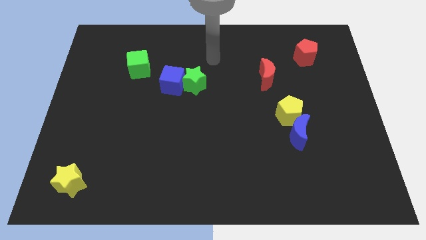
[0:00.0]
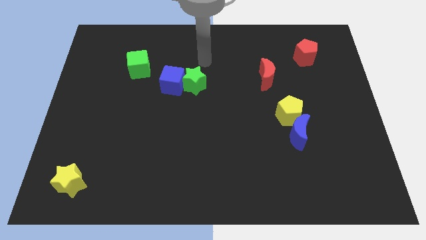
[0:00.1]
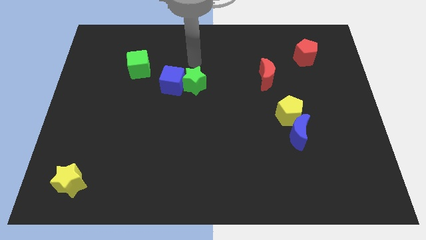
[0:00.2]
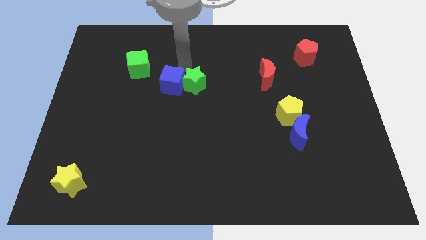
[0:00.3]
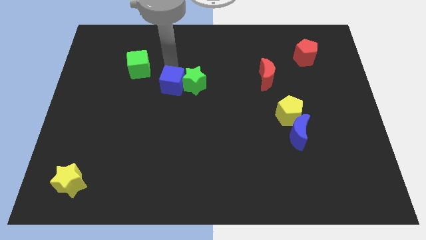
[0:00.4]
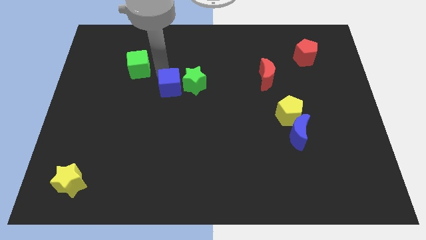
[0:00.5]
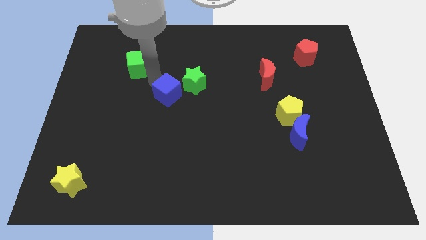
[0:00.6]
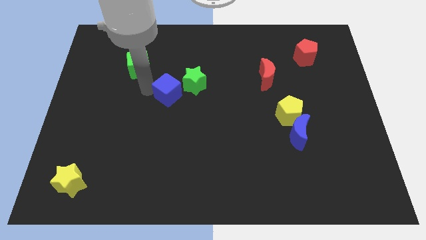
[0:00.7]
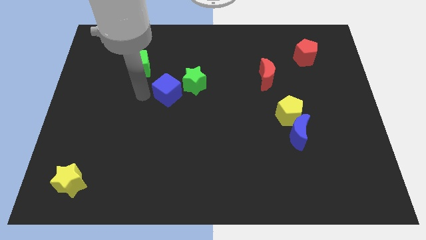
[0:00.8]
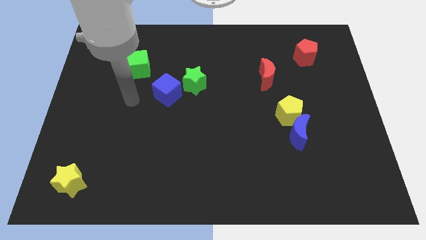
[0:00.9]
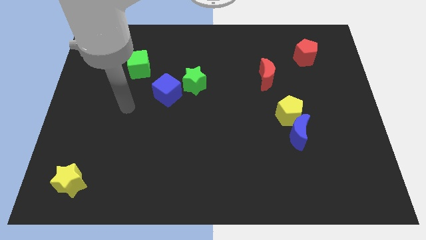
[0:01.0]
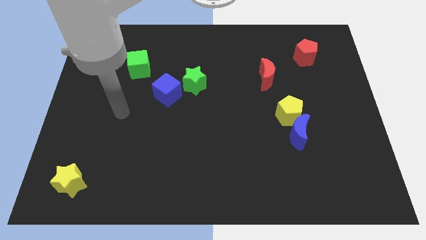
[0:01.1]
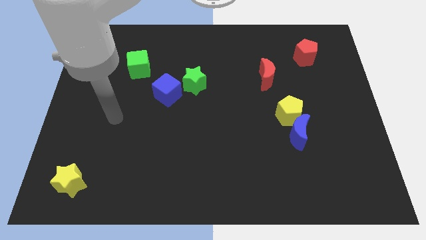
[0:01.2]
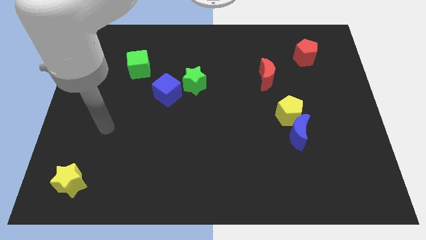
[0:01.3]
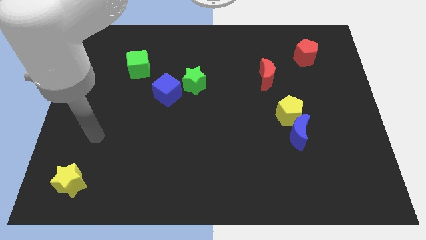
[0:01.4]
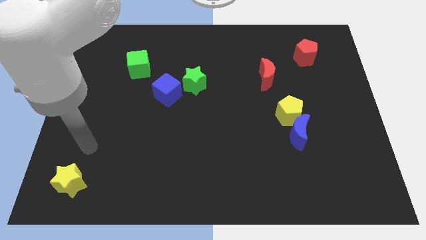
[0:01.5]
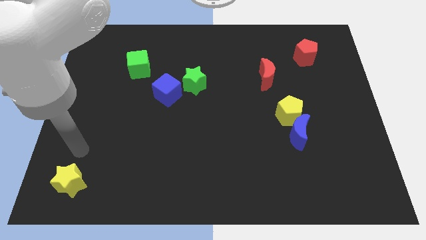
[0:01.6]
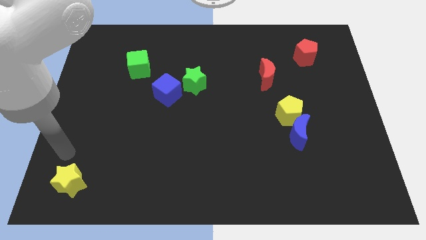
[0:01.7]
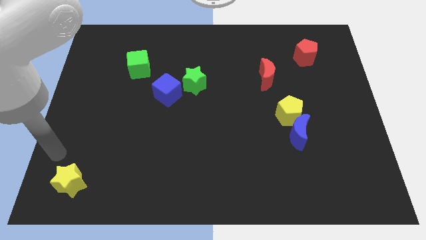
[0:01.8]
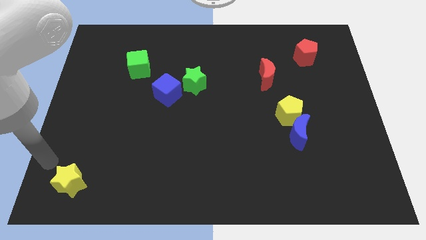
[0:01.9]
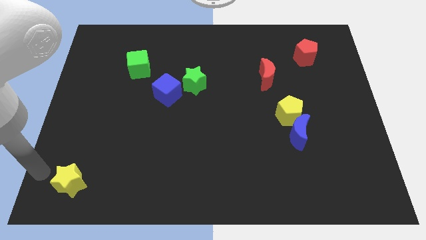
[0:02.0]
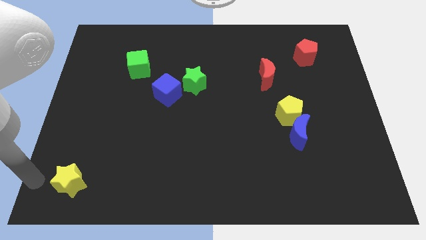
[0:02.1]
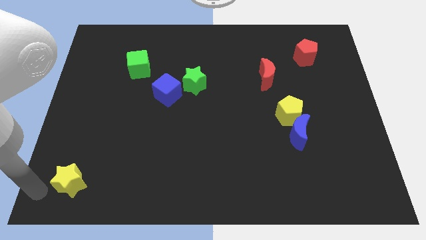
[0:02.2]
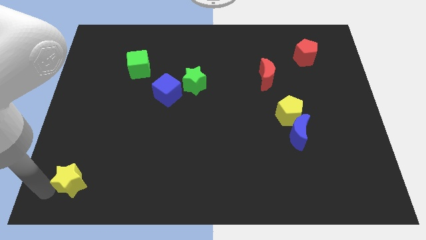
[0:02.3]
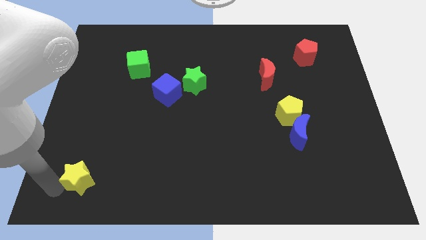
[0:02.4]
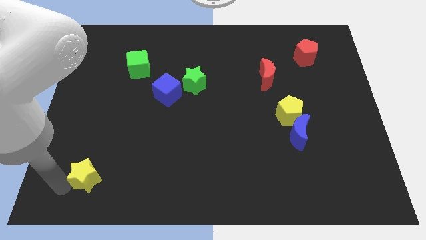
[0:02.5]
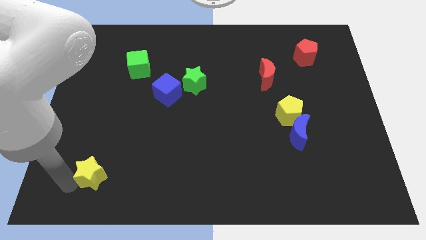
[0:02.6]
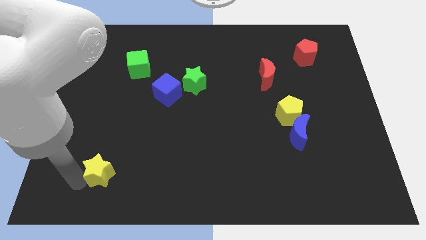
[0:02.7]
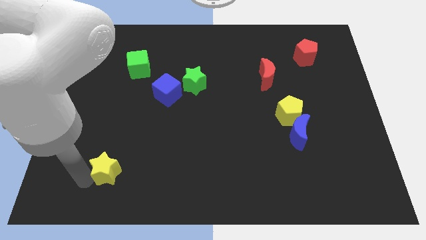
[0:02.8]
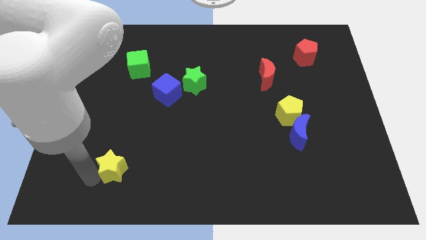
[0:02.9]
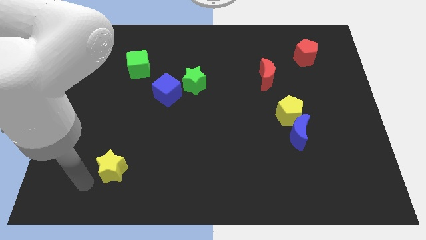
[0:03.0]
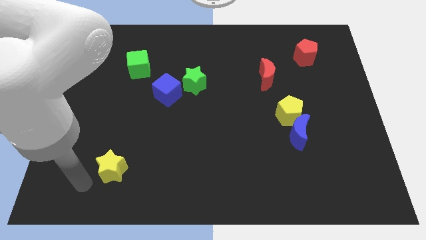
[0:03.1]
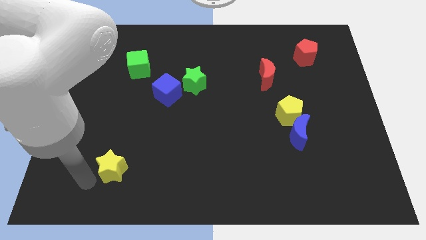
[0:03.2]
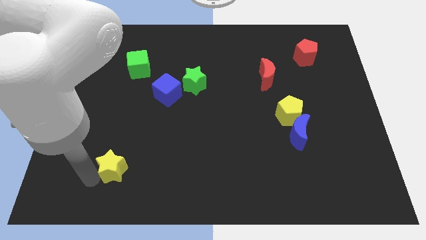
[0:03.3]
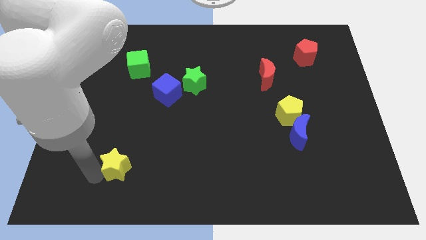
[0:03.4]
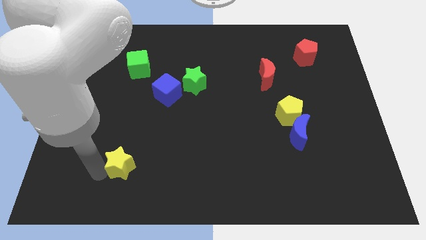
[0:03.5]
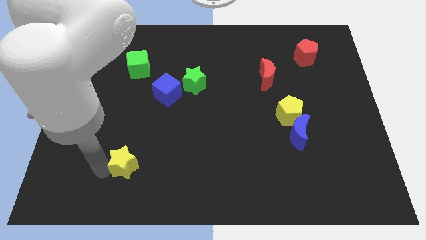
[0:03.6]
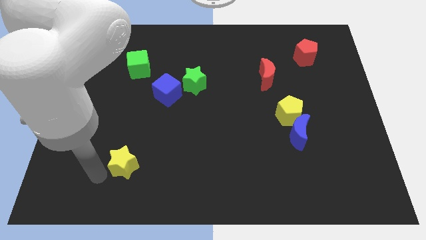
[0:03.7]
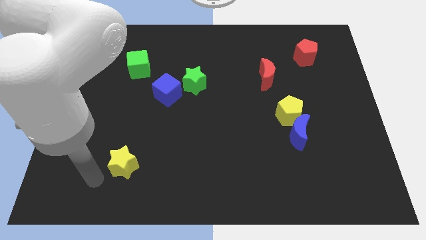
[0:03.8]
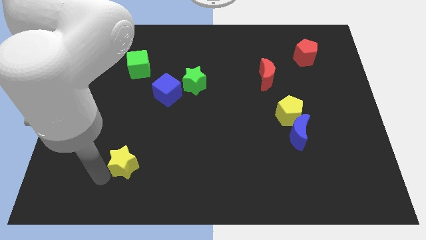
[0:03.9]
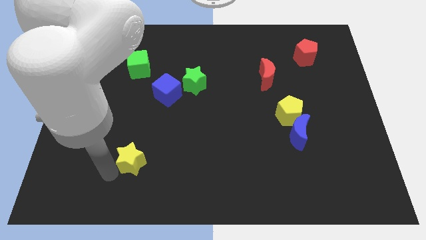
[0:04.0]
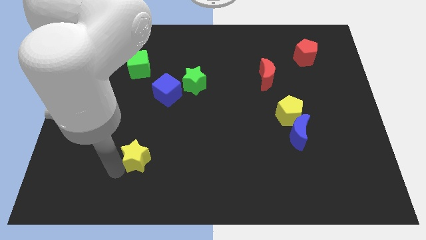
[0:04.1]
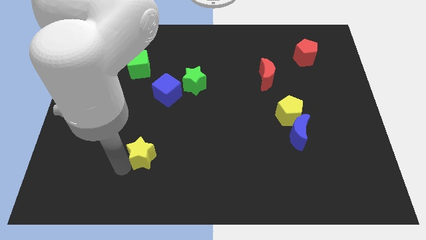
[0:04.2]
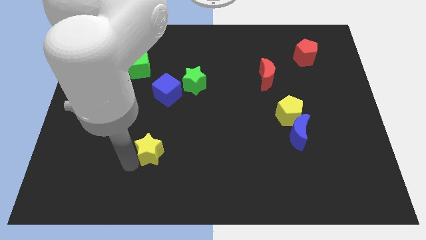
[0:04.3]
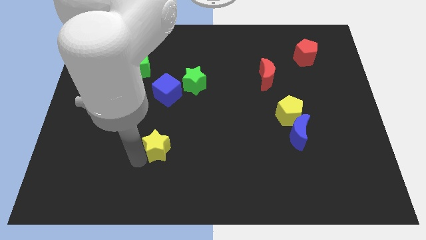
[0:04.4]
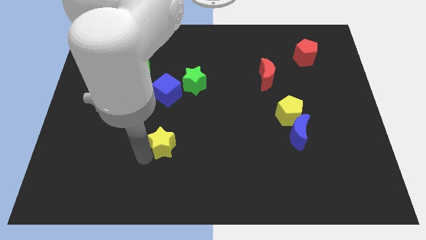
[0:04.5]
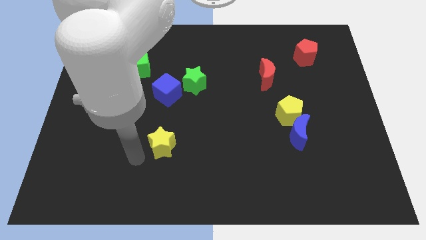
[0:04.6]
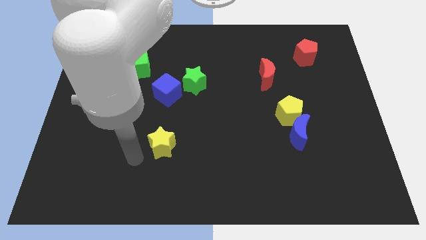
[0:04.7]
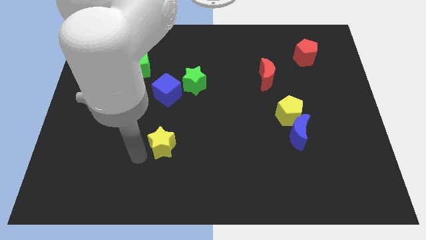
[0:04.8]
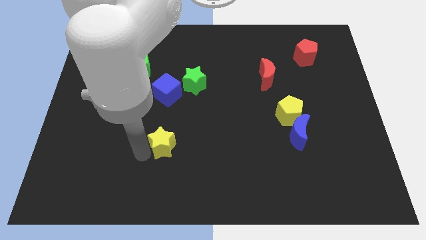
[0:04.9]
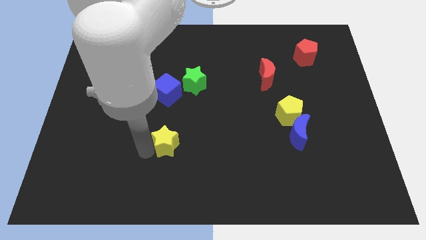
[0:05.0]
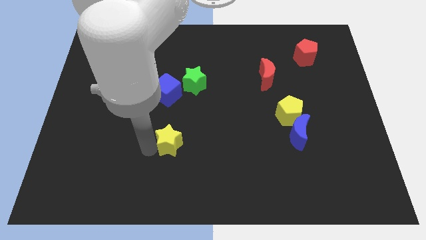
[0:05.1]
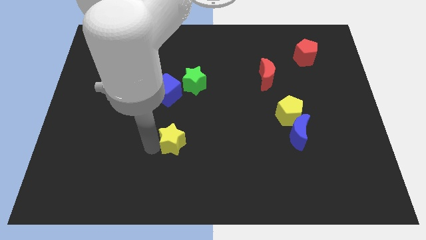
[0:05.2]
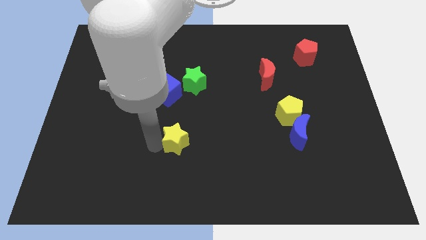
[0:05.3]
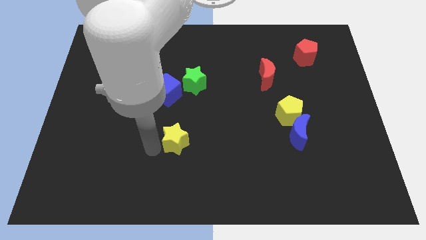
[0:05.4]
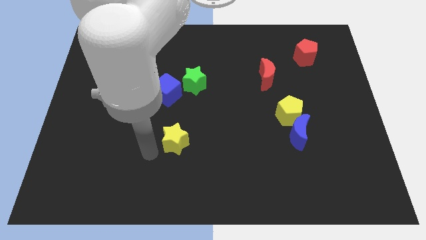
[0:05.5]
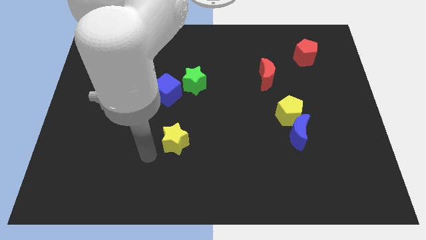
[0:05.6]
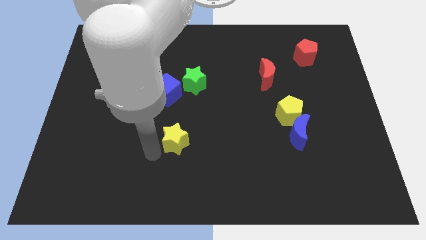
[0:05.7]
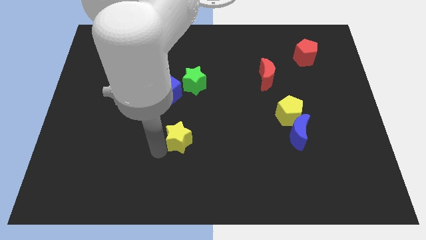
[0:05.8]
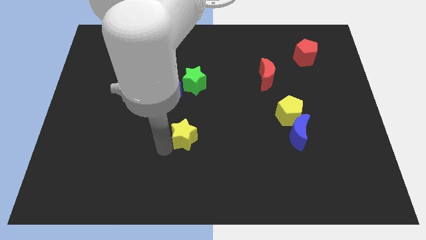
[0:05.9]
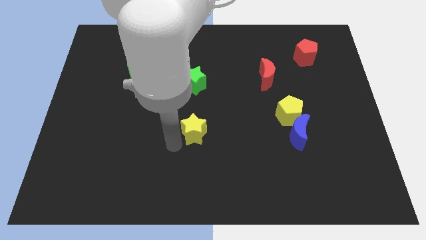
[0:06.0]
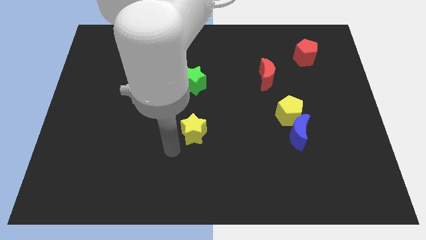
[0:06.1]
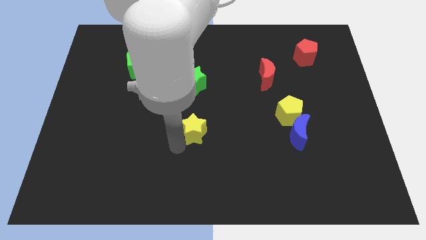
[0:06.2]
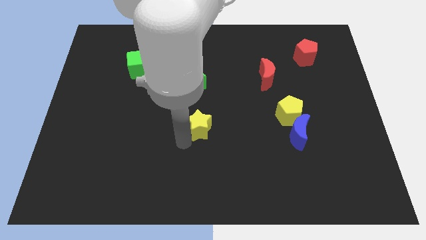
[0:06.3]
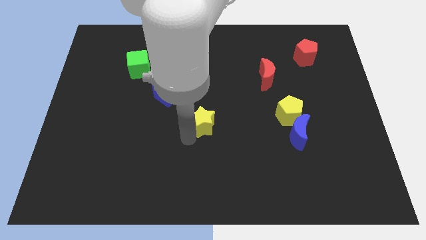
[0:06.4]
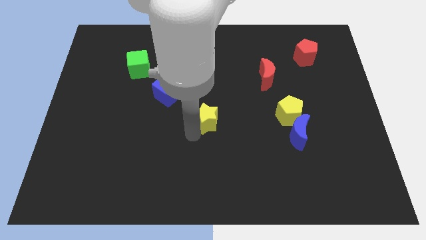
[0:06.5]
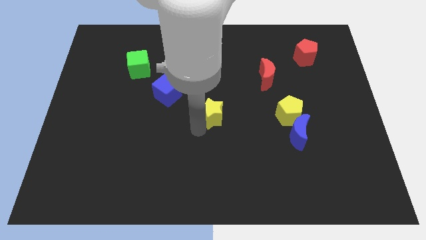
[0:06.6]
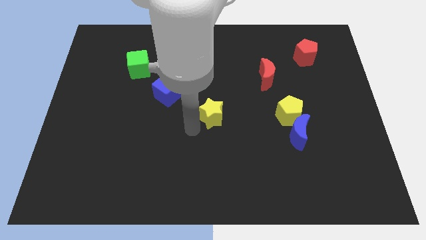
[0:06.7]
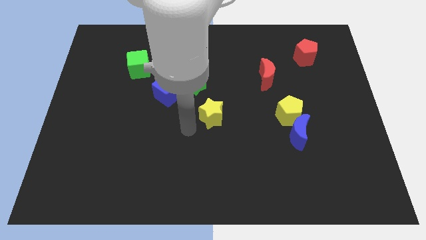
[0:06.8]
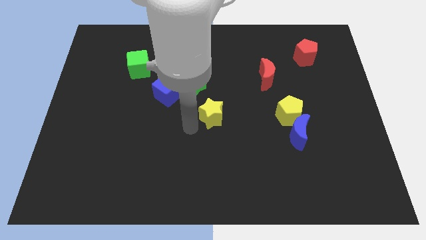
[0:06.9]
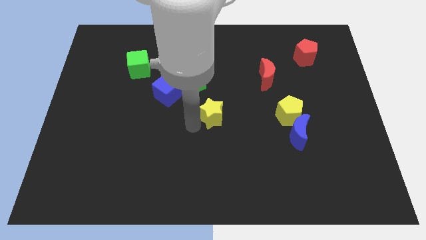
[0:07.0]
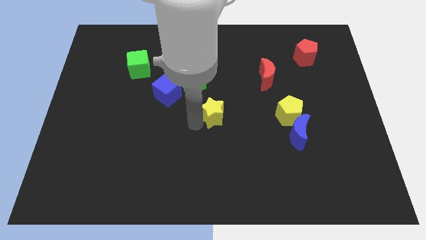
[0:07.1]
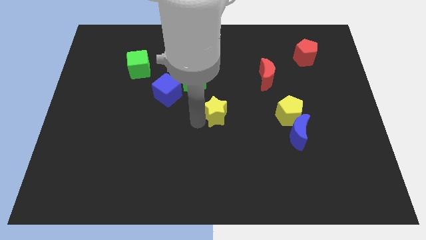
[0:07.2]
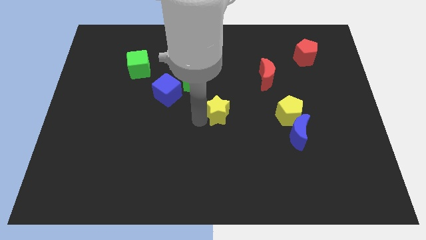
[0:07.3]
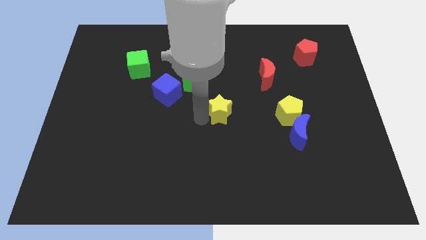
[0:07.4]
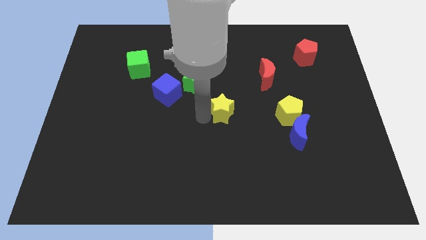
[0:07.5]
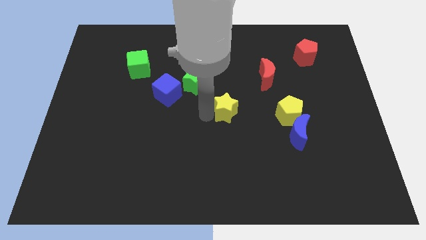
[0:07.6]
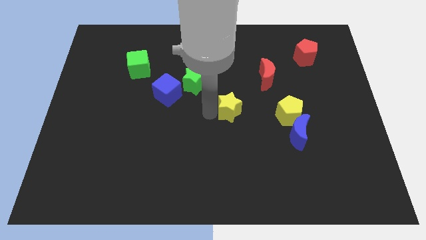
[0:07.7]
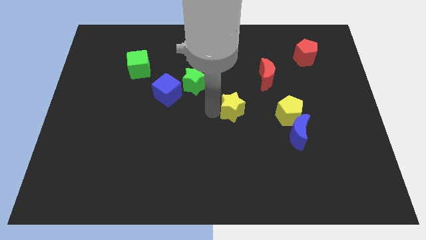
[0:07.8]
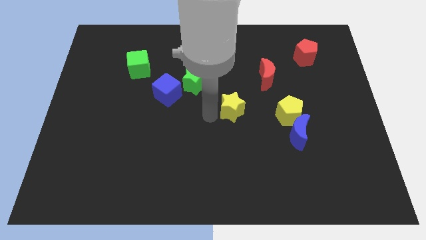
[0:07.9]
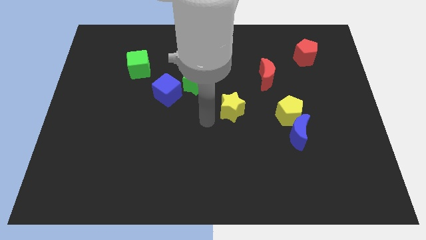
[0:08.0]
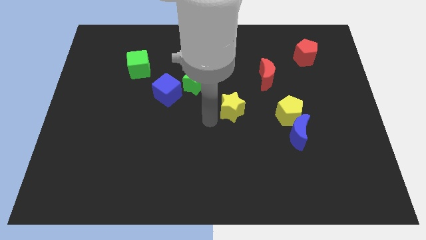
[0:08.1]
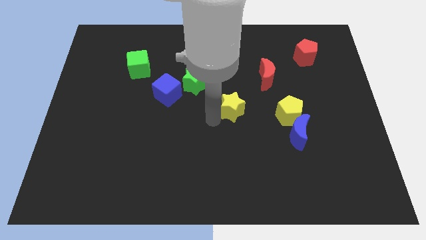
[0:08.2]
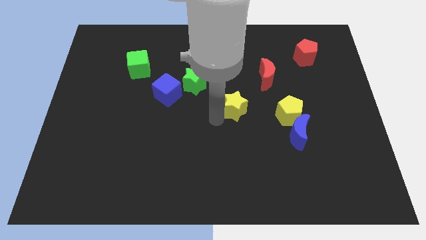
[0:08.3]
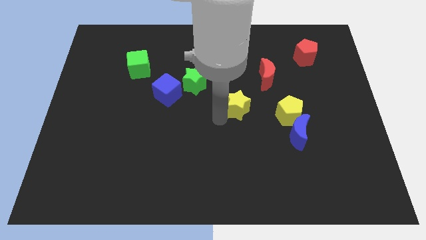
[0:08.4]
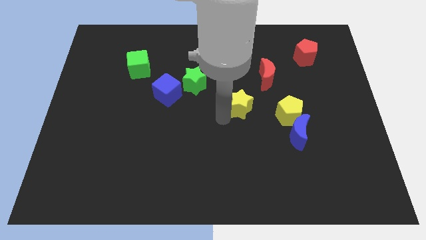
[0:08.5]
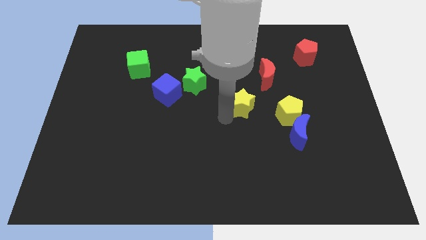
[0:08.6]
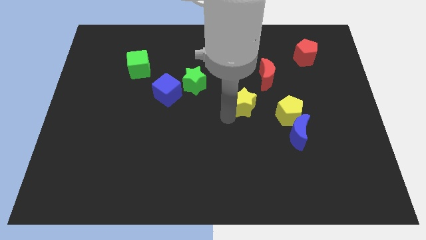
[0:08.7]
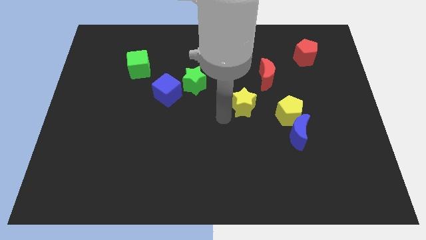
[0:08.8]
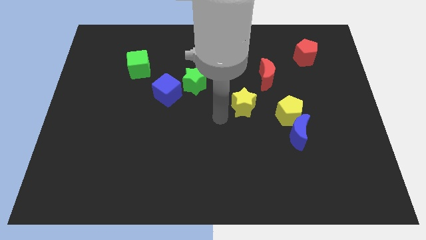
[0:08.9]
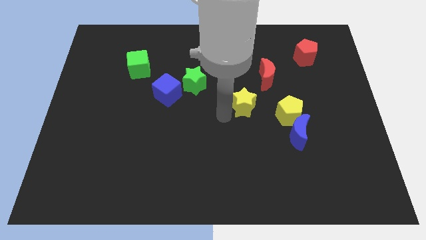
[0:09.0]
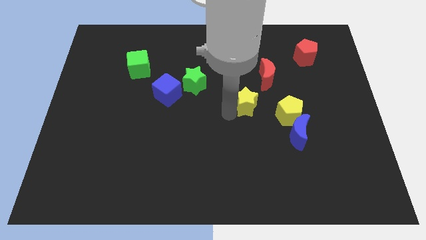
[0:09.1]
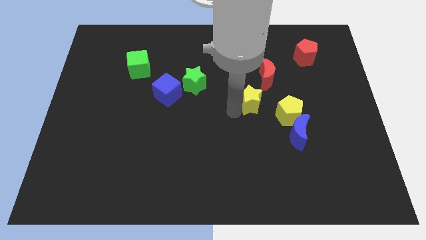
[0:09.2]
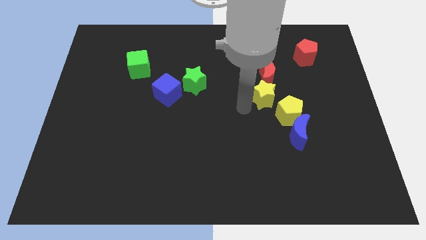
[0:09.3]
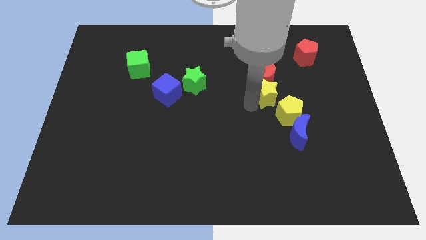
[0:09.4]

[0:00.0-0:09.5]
put the yellow star to the top side of the yellow pentagon
